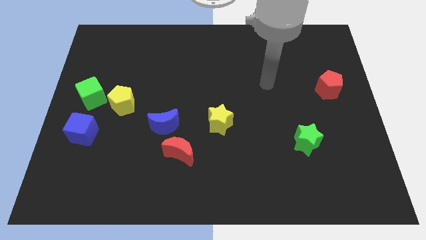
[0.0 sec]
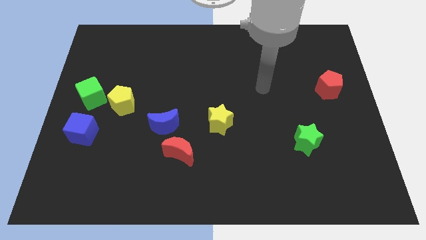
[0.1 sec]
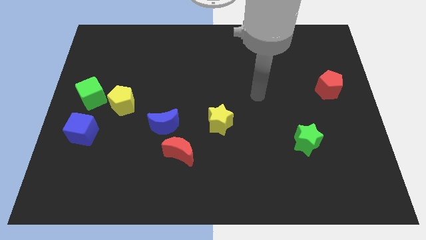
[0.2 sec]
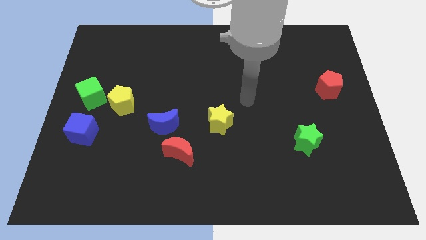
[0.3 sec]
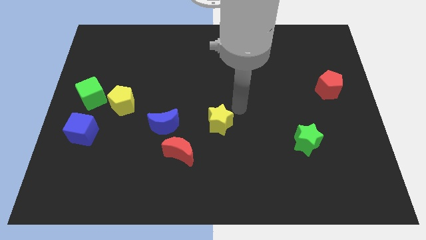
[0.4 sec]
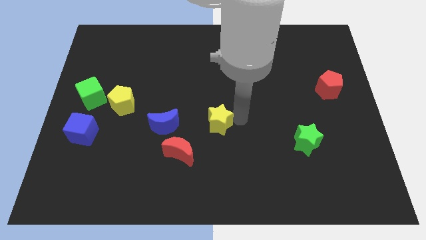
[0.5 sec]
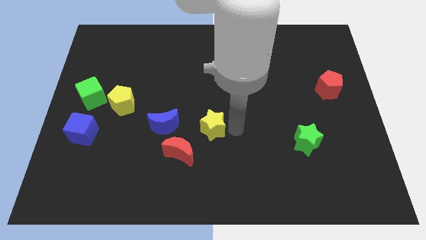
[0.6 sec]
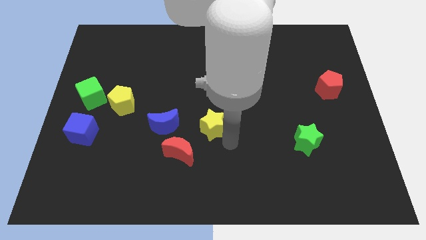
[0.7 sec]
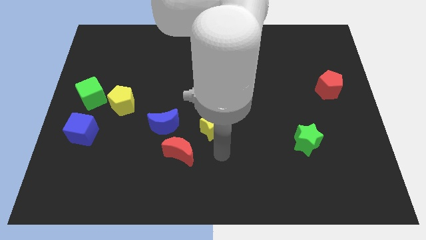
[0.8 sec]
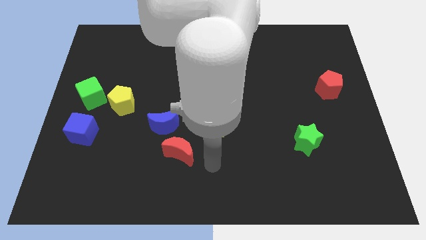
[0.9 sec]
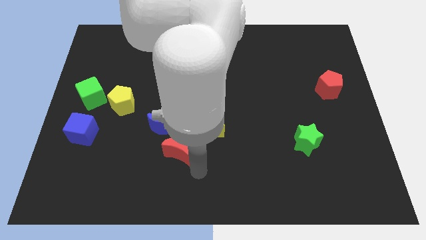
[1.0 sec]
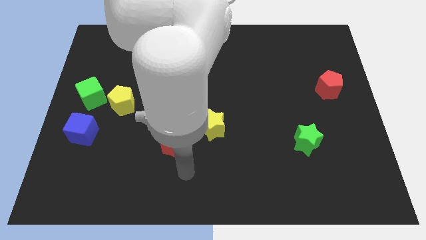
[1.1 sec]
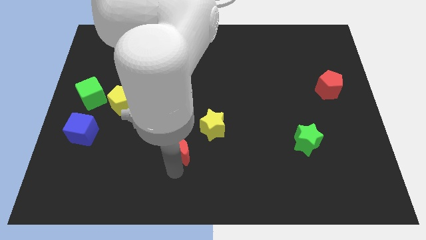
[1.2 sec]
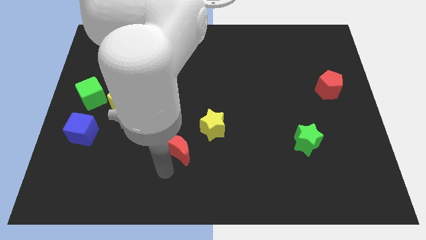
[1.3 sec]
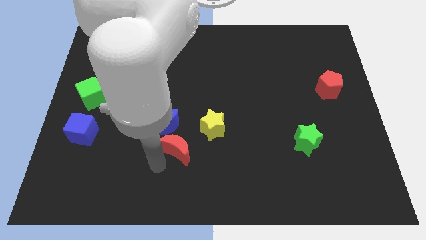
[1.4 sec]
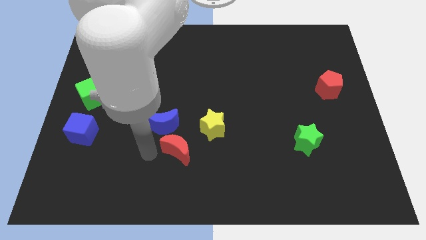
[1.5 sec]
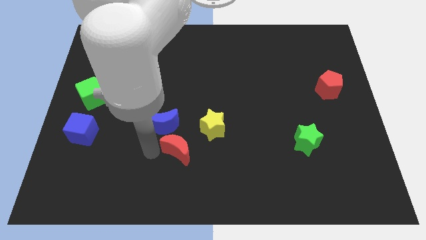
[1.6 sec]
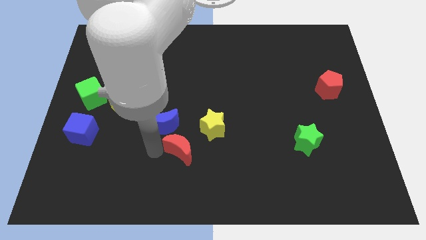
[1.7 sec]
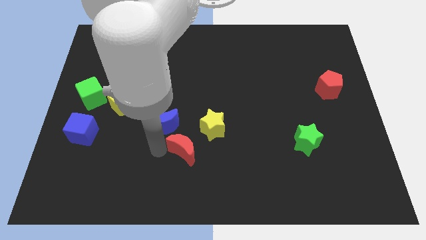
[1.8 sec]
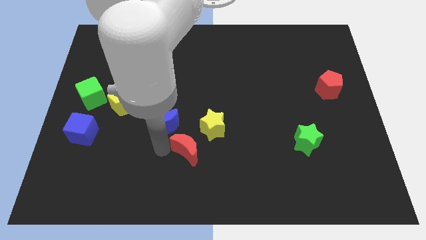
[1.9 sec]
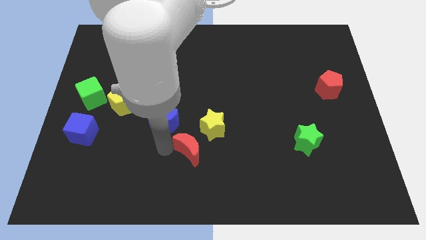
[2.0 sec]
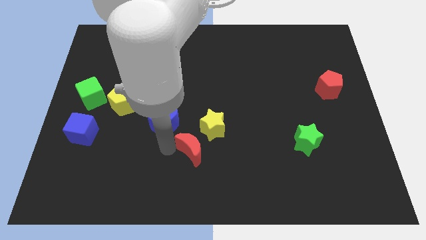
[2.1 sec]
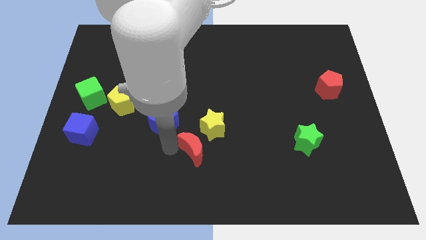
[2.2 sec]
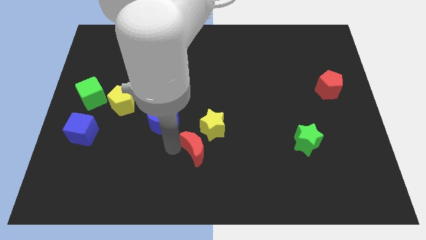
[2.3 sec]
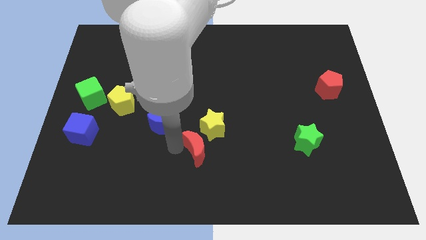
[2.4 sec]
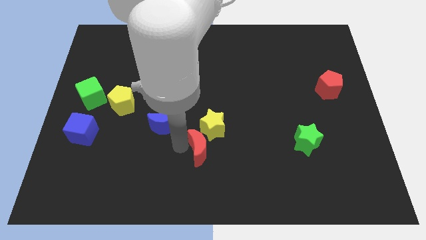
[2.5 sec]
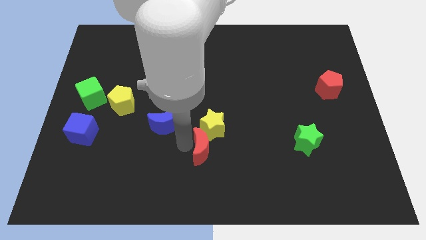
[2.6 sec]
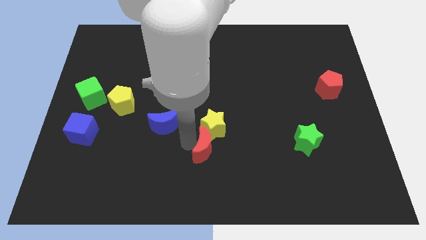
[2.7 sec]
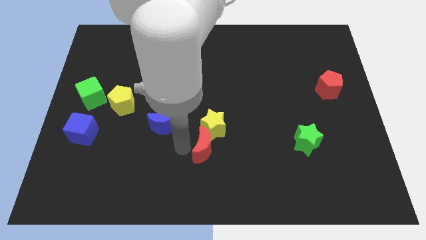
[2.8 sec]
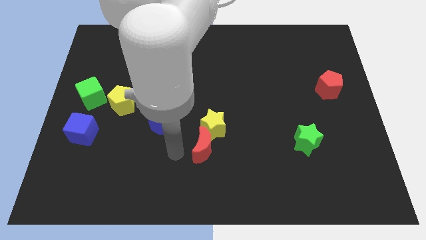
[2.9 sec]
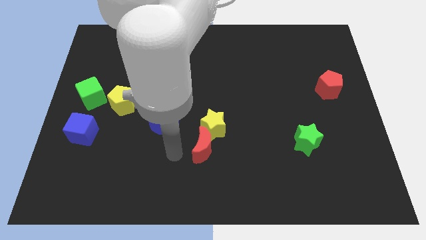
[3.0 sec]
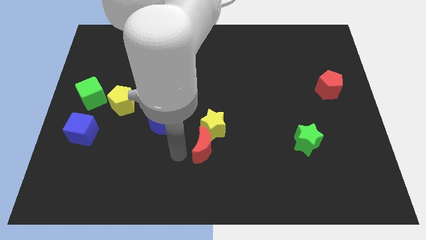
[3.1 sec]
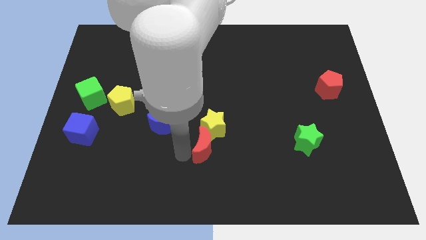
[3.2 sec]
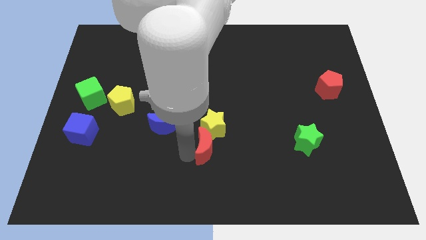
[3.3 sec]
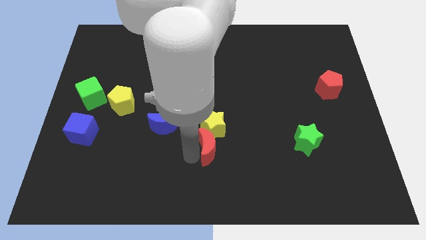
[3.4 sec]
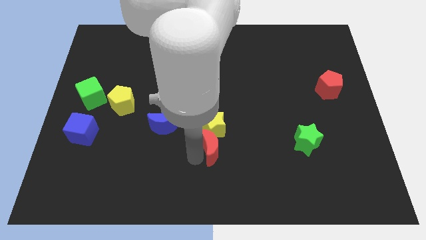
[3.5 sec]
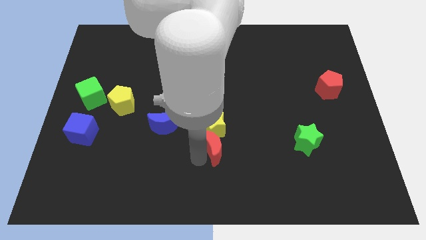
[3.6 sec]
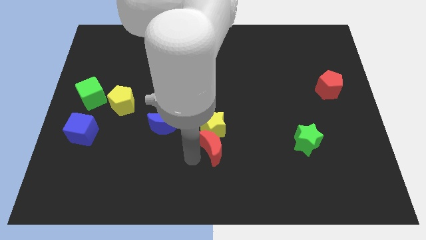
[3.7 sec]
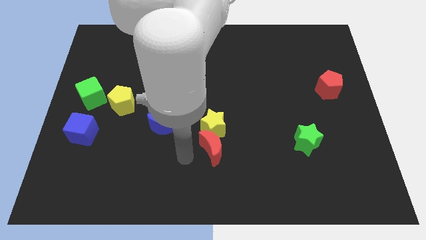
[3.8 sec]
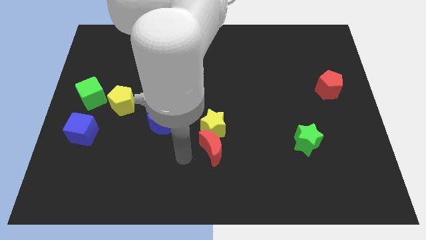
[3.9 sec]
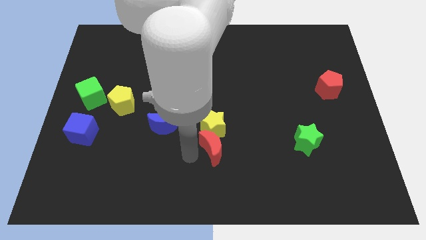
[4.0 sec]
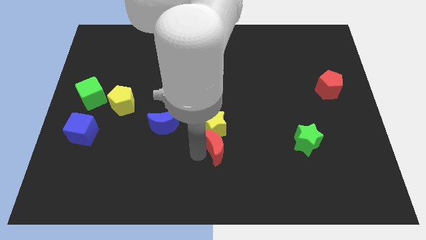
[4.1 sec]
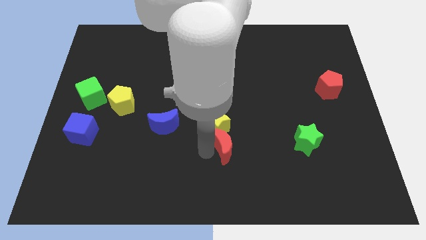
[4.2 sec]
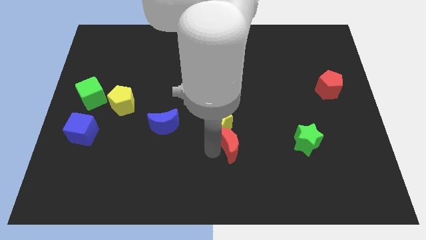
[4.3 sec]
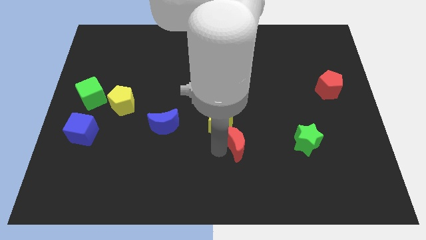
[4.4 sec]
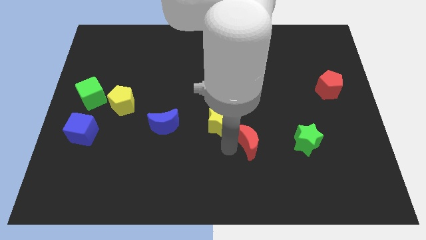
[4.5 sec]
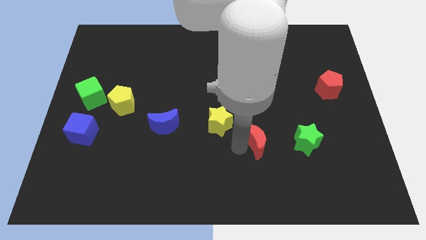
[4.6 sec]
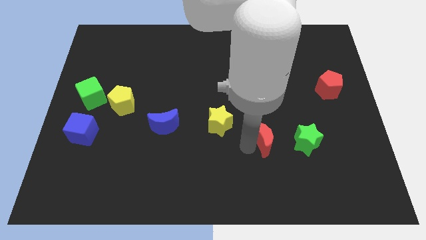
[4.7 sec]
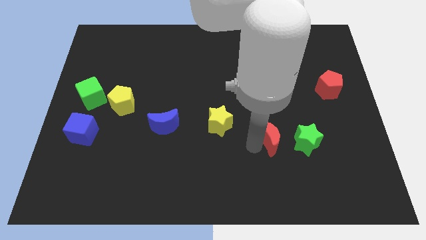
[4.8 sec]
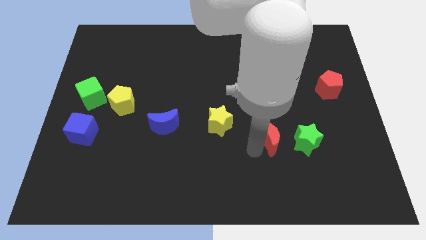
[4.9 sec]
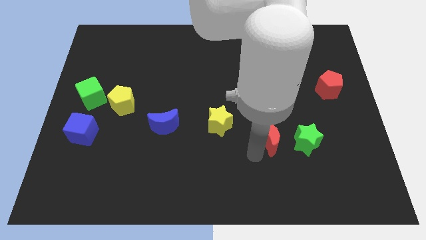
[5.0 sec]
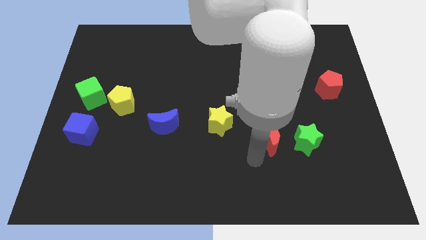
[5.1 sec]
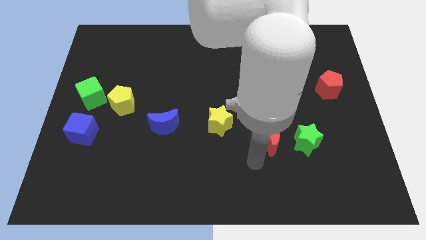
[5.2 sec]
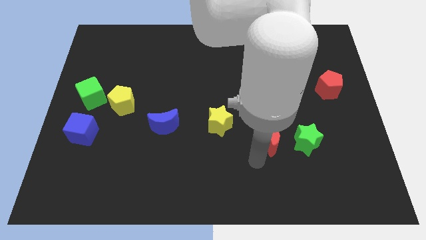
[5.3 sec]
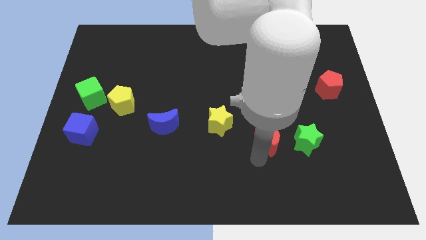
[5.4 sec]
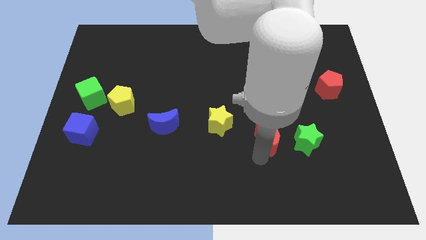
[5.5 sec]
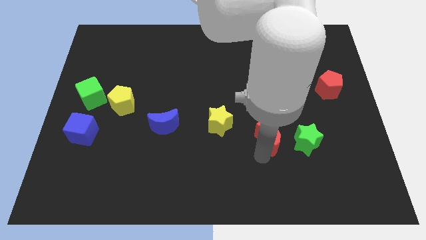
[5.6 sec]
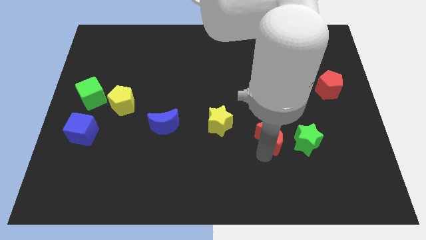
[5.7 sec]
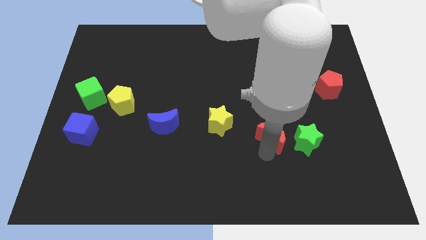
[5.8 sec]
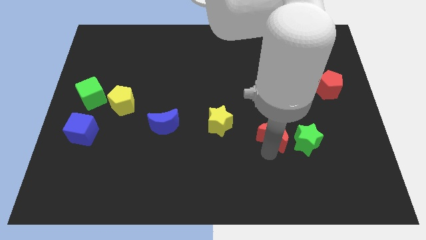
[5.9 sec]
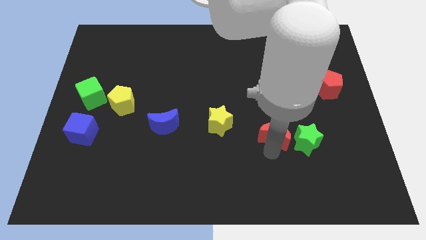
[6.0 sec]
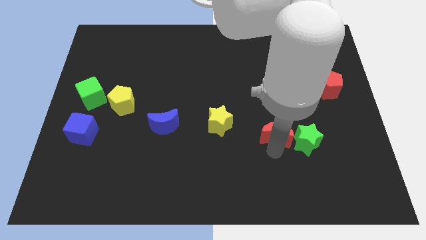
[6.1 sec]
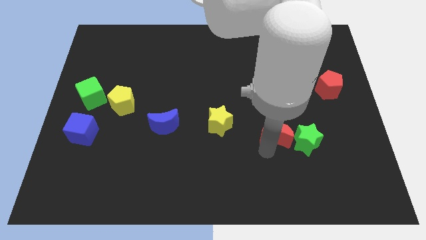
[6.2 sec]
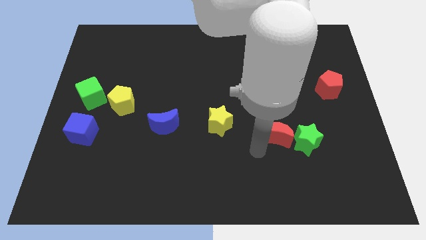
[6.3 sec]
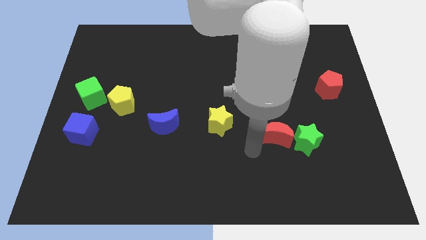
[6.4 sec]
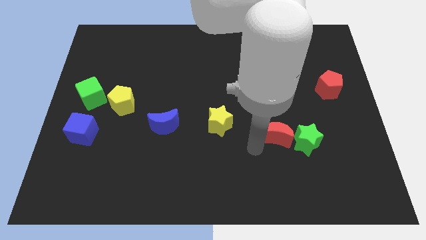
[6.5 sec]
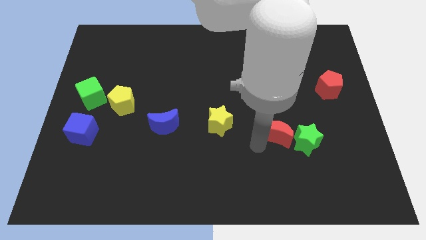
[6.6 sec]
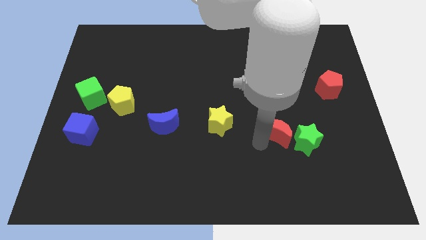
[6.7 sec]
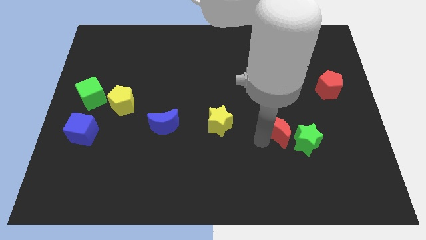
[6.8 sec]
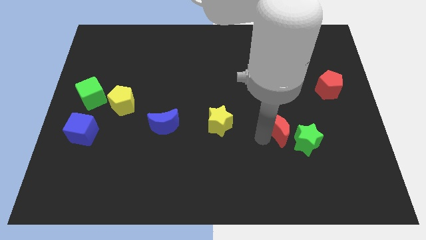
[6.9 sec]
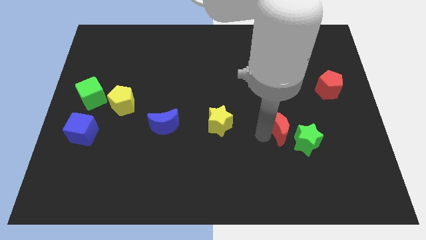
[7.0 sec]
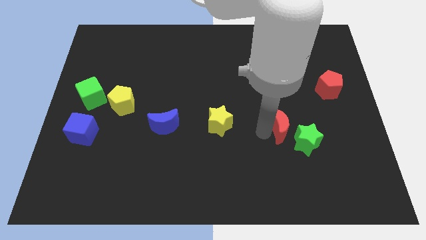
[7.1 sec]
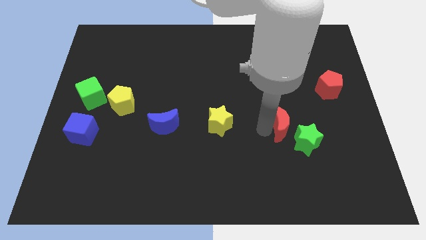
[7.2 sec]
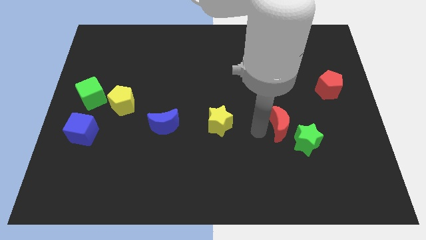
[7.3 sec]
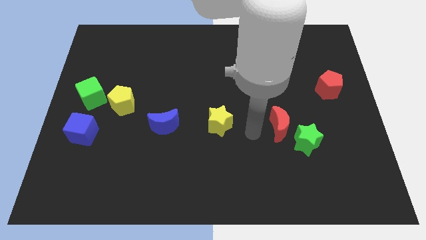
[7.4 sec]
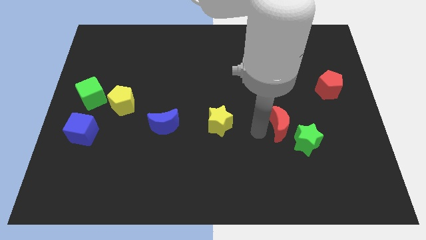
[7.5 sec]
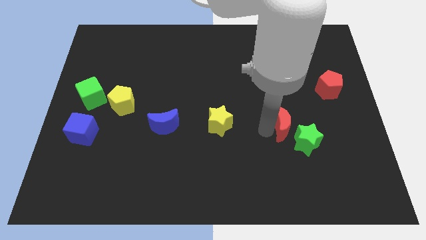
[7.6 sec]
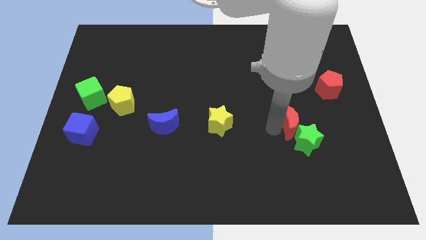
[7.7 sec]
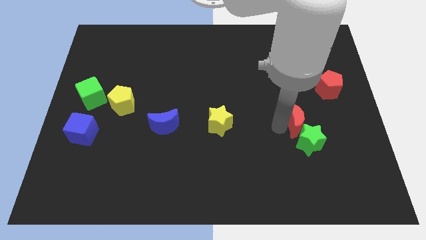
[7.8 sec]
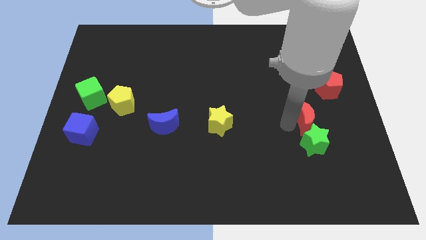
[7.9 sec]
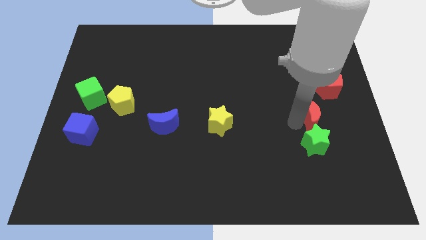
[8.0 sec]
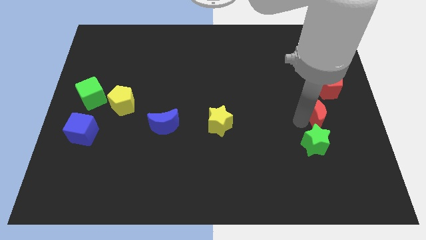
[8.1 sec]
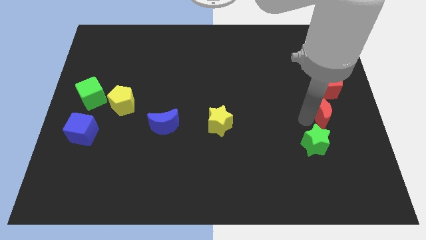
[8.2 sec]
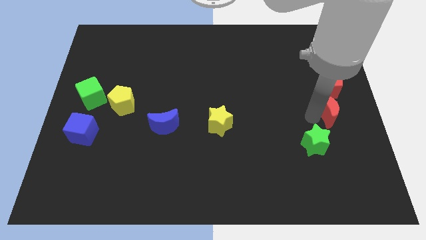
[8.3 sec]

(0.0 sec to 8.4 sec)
move the red moon to the center right
